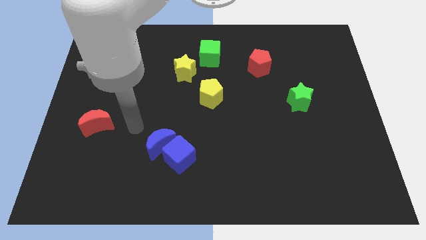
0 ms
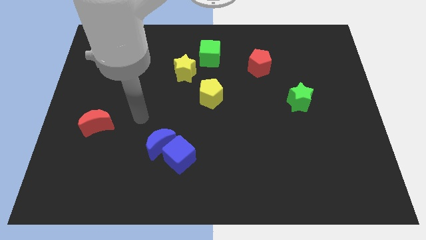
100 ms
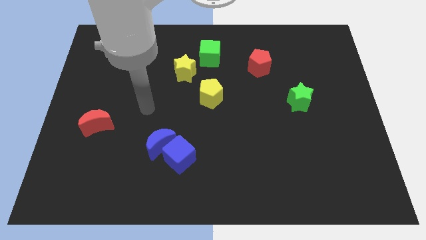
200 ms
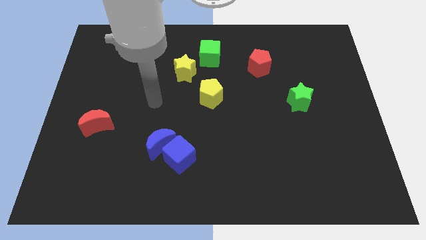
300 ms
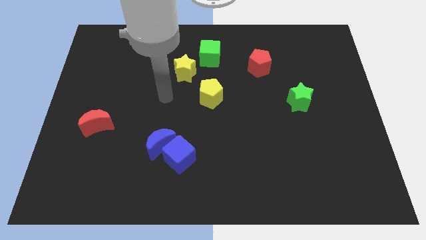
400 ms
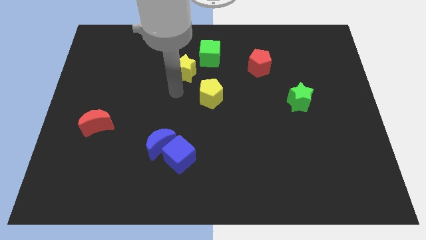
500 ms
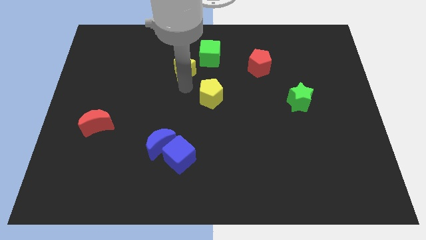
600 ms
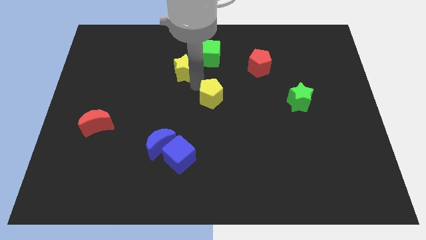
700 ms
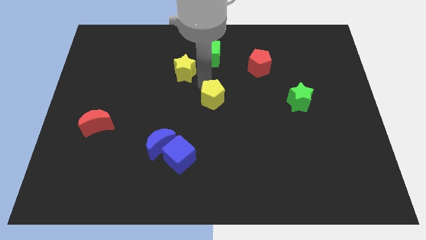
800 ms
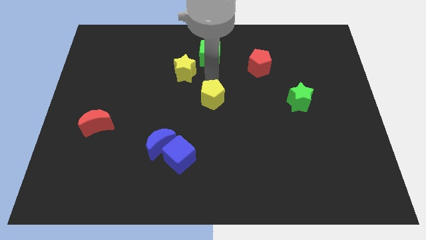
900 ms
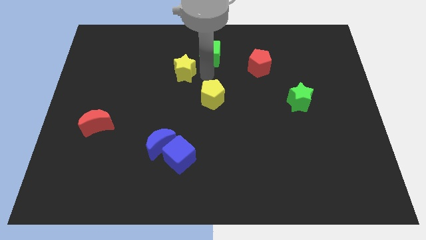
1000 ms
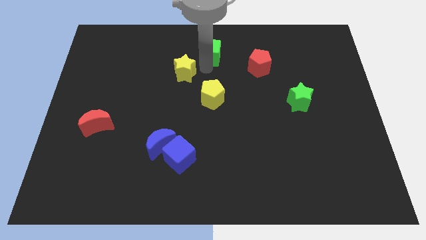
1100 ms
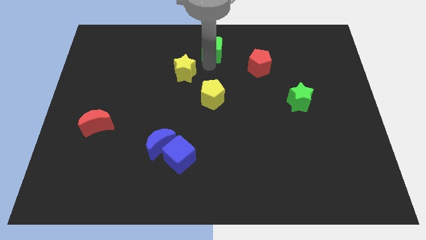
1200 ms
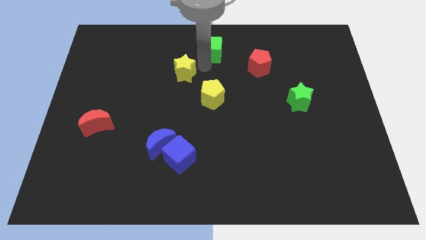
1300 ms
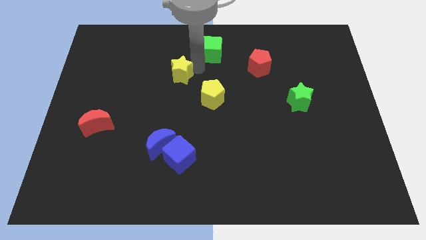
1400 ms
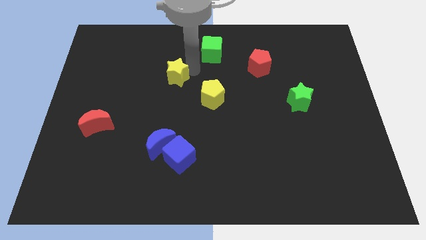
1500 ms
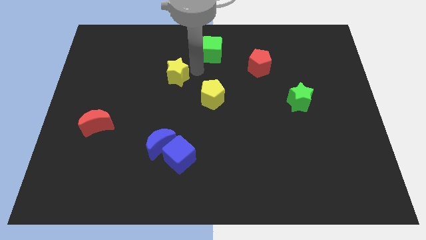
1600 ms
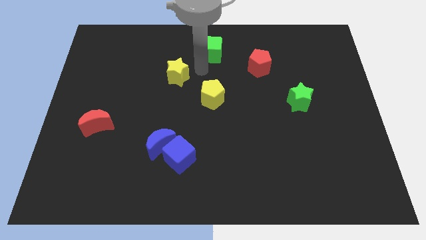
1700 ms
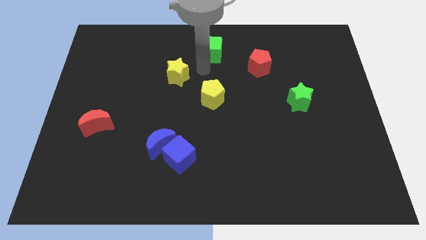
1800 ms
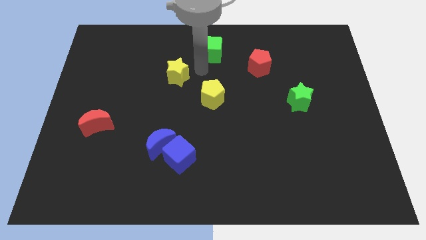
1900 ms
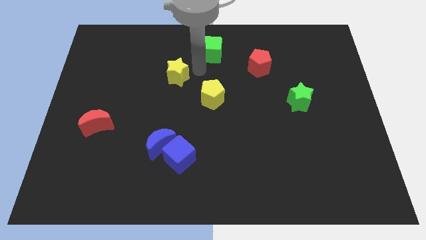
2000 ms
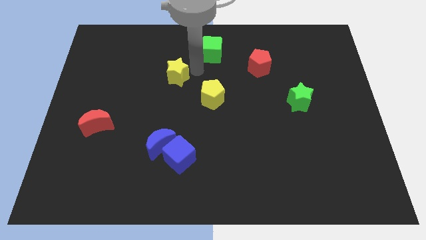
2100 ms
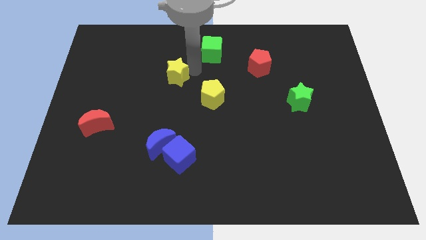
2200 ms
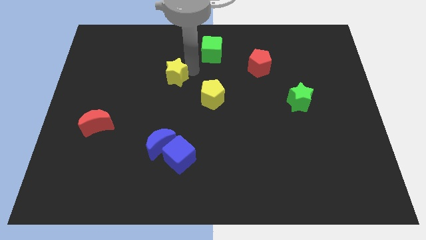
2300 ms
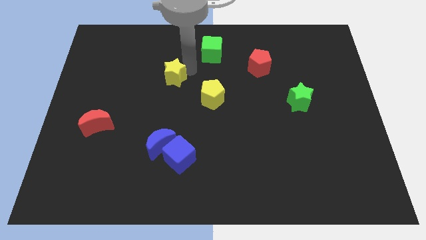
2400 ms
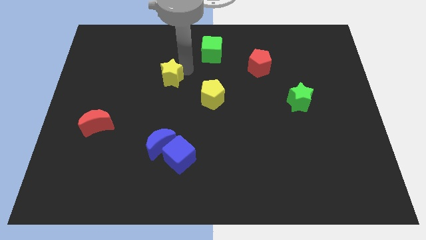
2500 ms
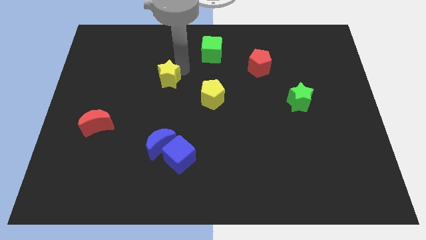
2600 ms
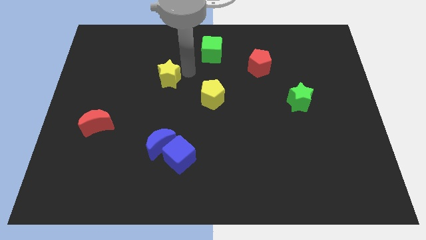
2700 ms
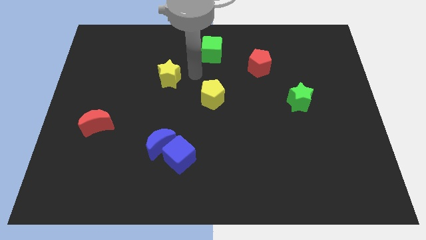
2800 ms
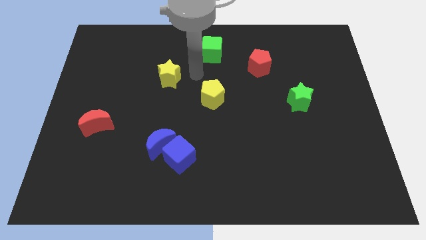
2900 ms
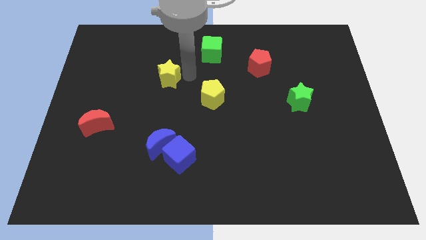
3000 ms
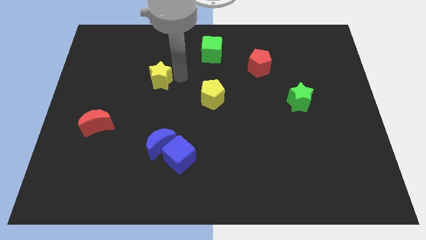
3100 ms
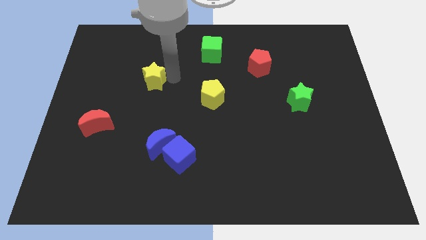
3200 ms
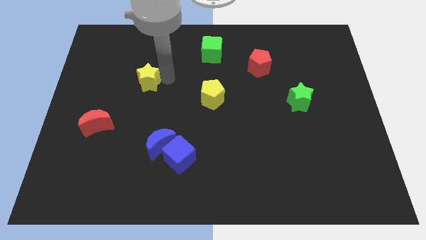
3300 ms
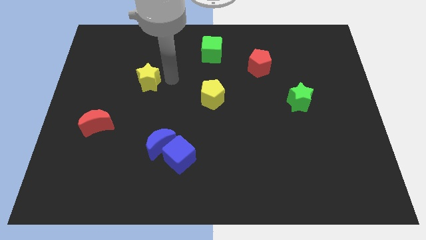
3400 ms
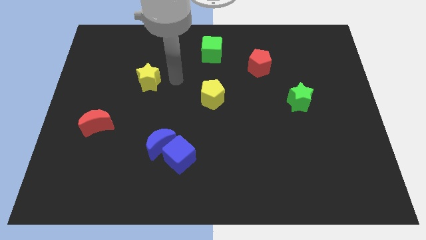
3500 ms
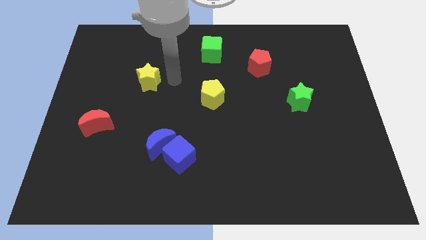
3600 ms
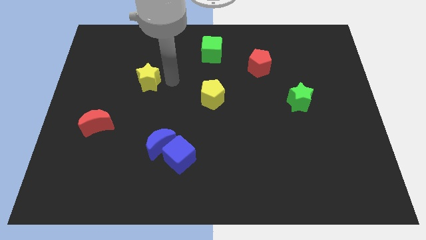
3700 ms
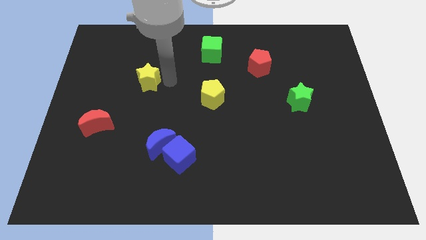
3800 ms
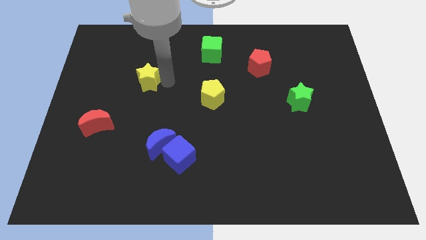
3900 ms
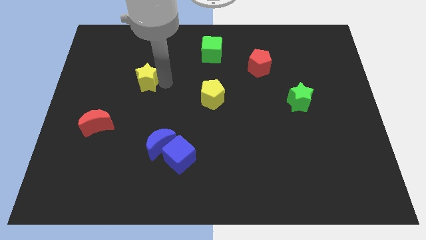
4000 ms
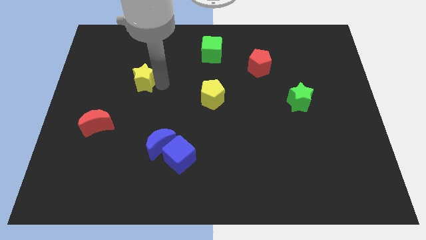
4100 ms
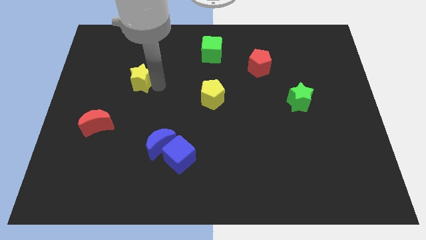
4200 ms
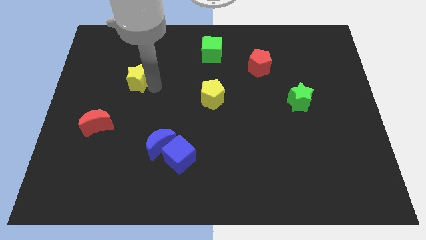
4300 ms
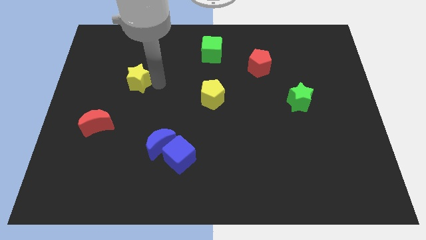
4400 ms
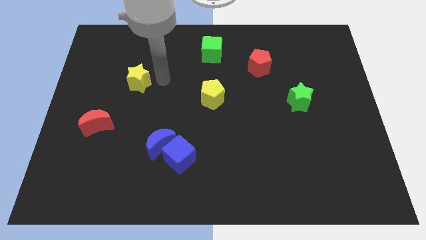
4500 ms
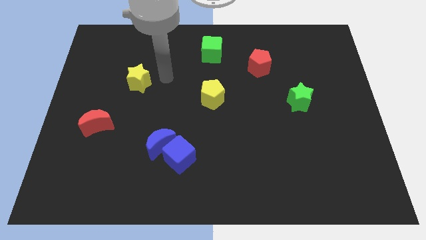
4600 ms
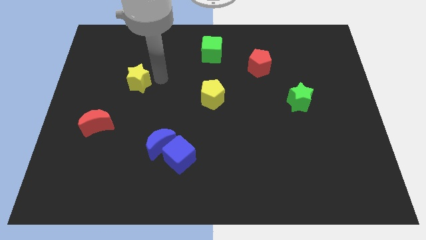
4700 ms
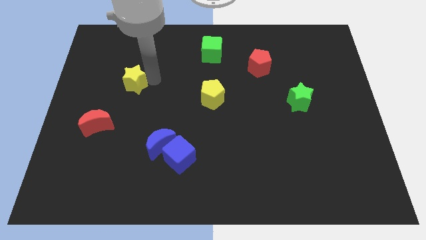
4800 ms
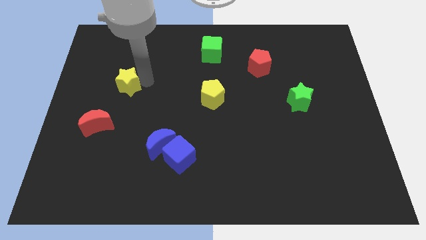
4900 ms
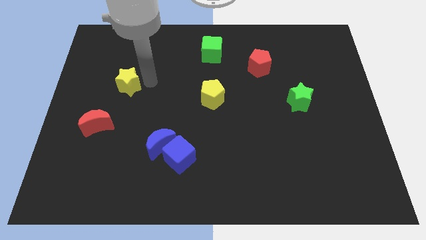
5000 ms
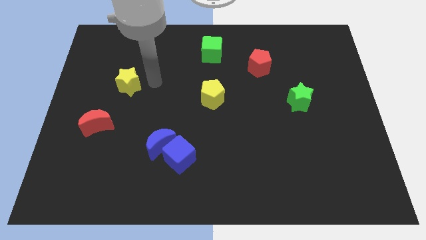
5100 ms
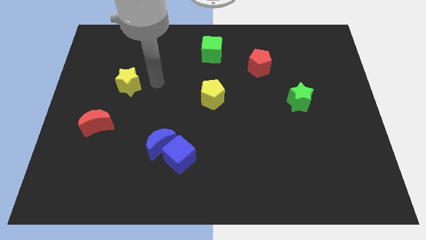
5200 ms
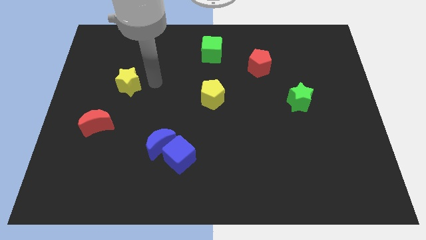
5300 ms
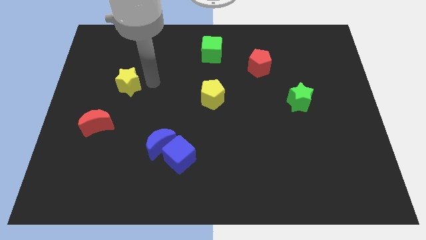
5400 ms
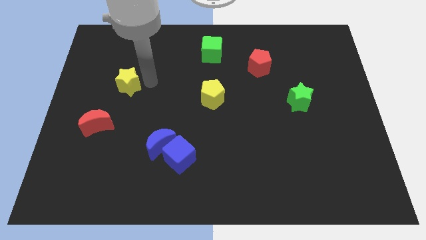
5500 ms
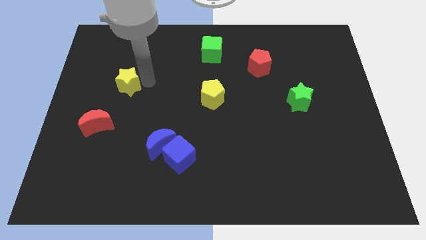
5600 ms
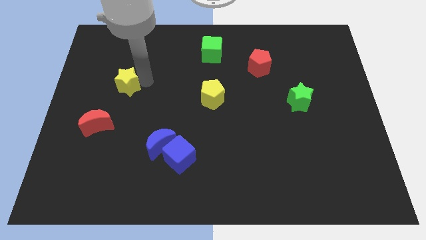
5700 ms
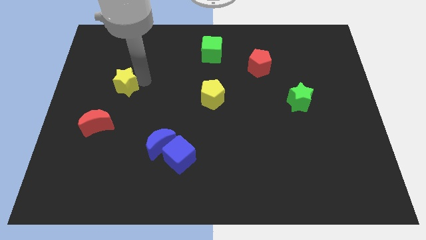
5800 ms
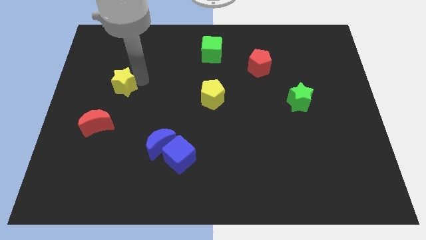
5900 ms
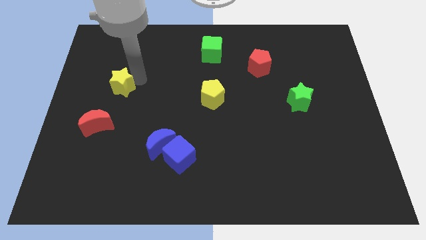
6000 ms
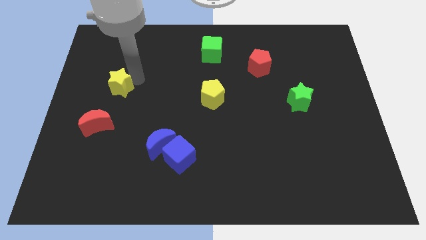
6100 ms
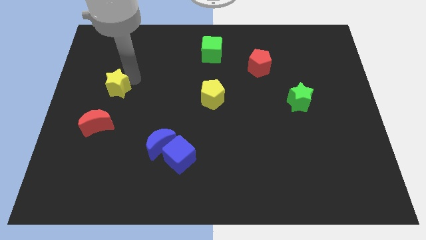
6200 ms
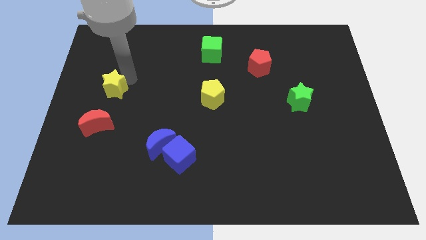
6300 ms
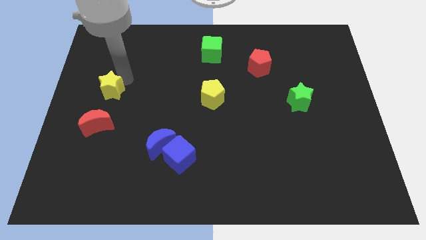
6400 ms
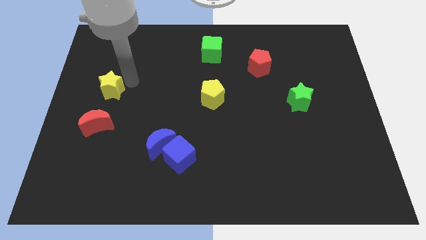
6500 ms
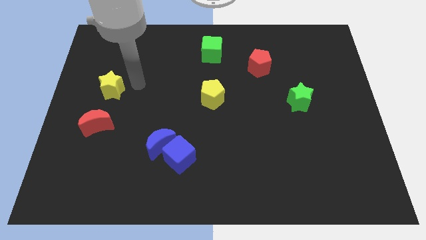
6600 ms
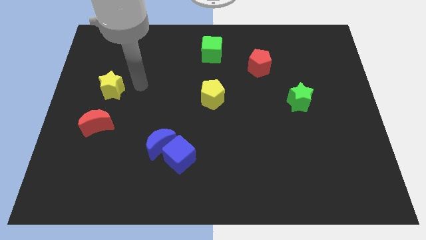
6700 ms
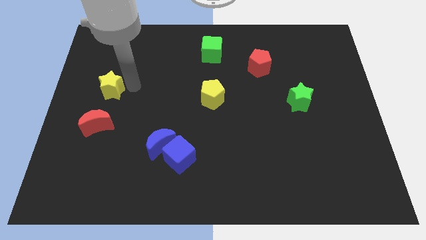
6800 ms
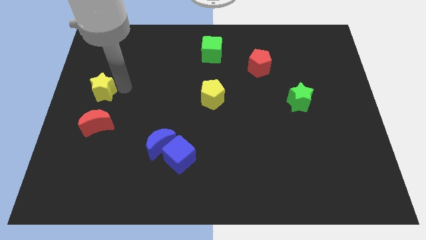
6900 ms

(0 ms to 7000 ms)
push the yellow star to the left side of the board
